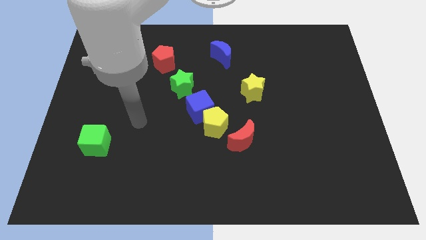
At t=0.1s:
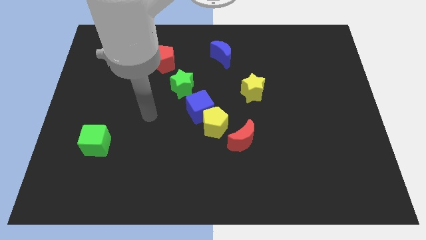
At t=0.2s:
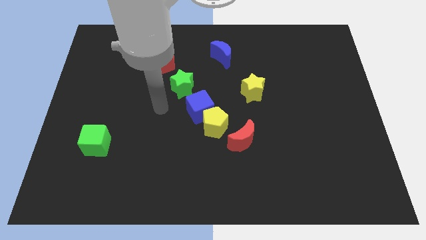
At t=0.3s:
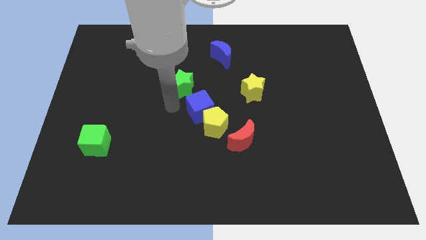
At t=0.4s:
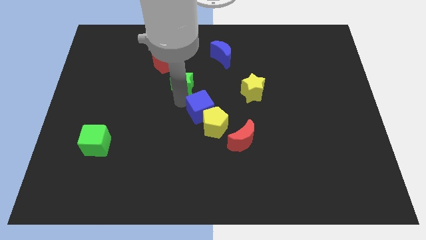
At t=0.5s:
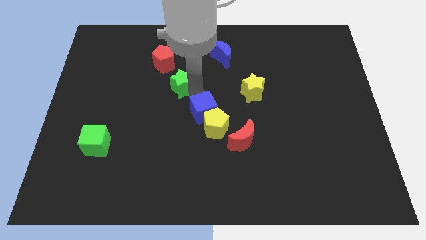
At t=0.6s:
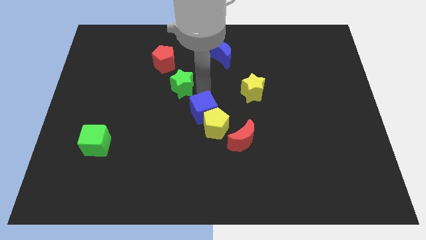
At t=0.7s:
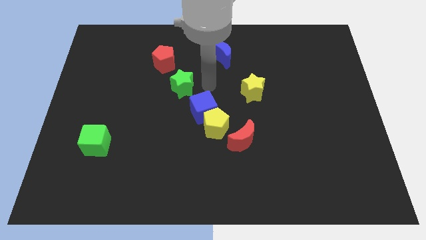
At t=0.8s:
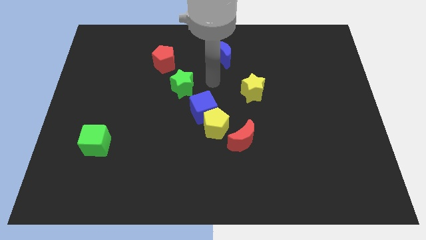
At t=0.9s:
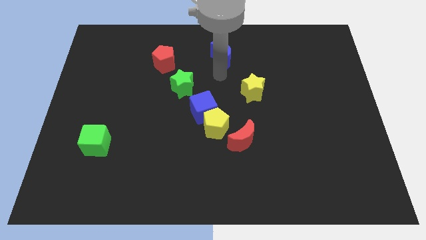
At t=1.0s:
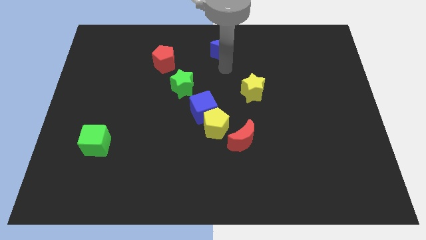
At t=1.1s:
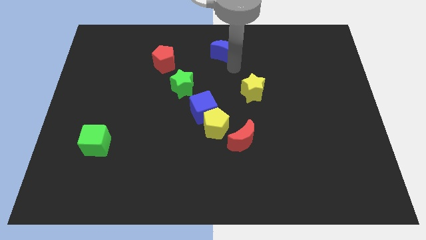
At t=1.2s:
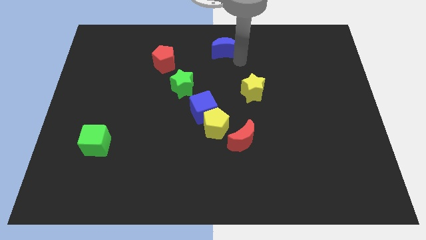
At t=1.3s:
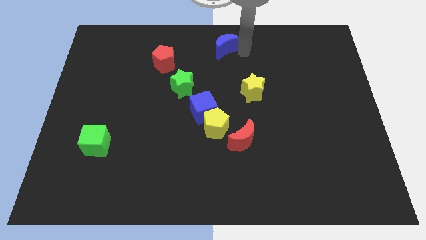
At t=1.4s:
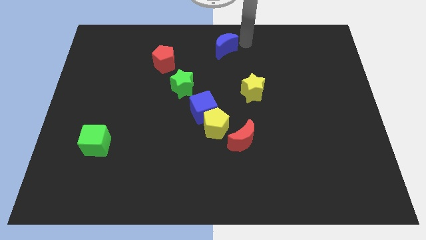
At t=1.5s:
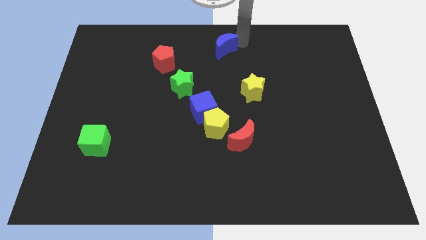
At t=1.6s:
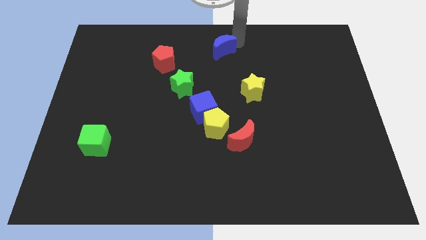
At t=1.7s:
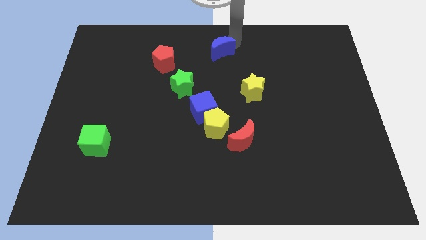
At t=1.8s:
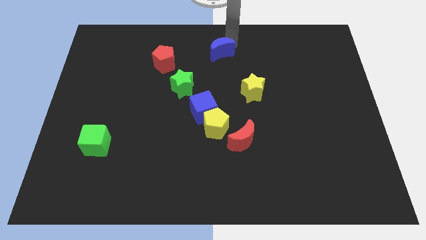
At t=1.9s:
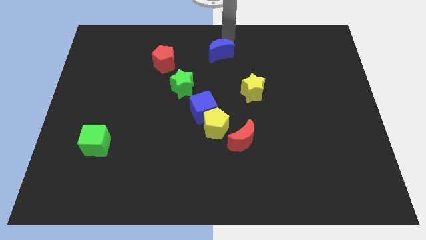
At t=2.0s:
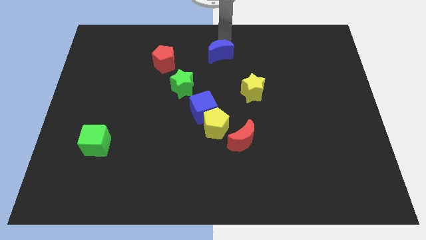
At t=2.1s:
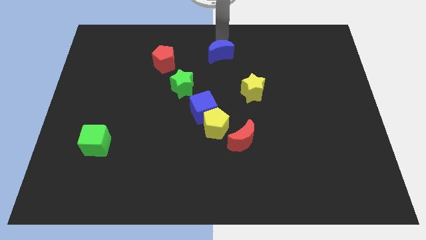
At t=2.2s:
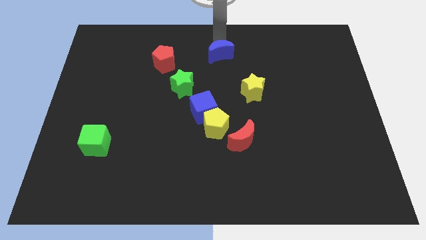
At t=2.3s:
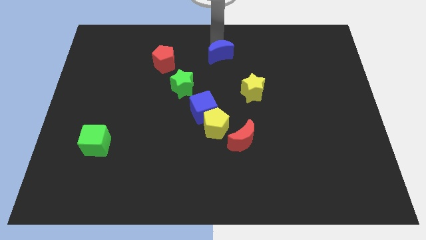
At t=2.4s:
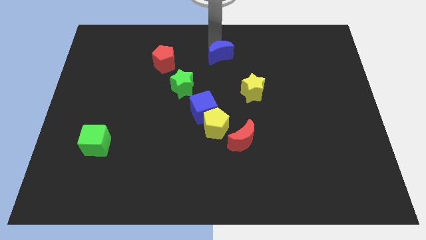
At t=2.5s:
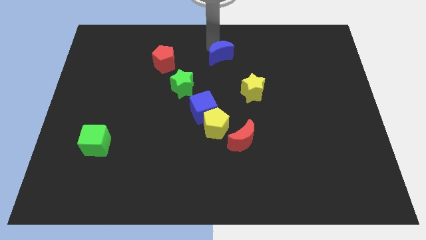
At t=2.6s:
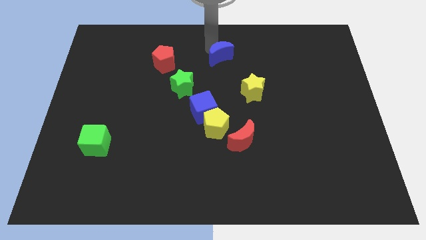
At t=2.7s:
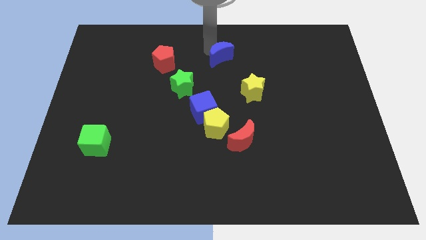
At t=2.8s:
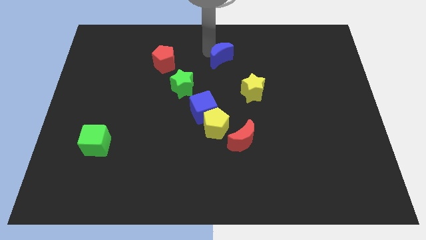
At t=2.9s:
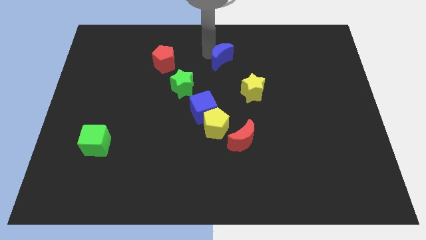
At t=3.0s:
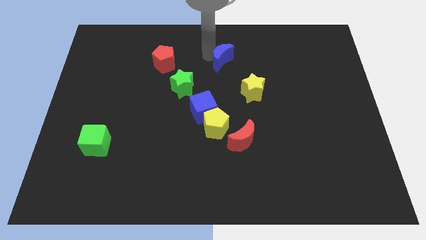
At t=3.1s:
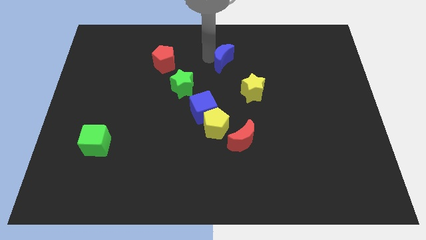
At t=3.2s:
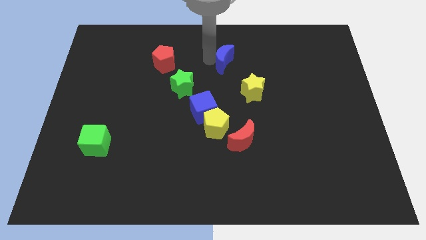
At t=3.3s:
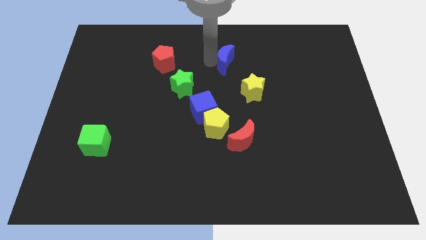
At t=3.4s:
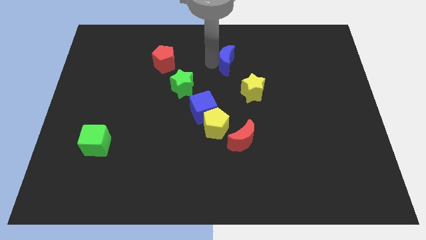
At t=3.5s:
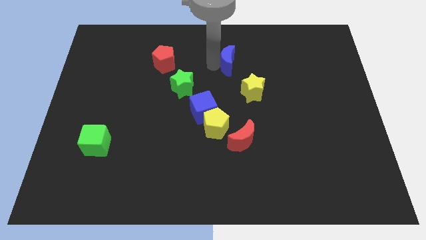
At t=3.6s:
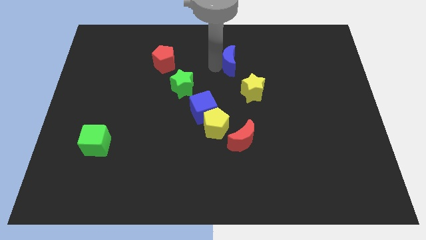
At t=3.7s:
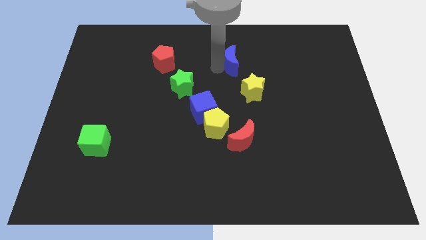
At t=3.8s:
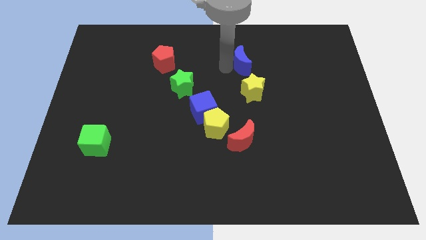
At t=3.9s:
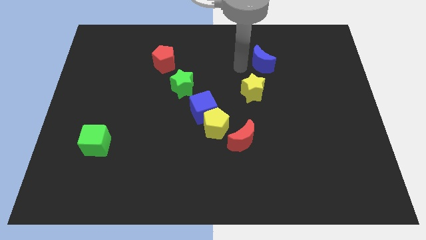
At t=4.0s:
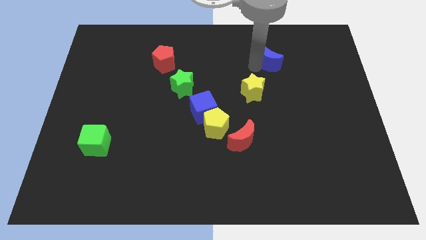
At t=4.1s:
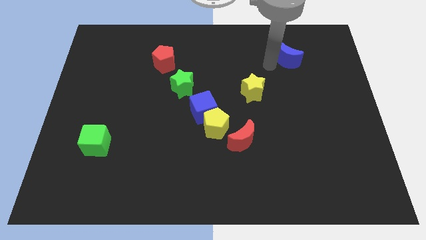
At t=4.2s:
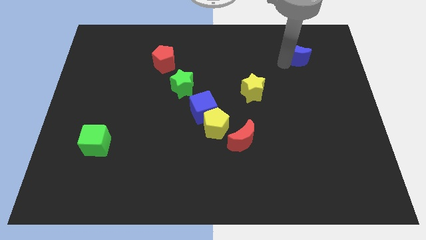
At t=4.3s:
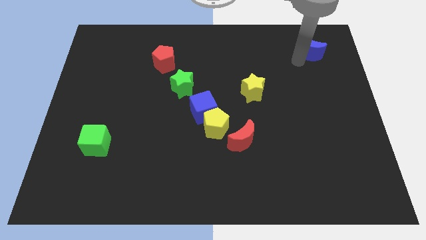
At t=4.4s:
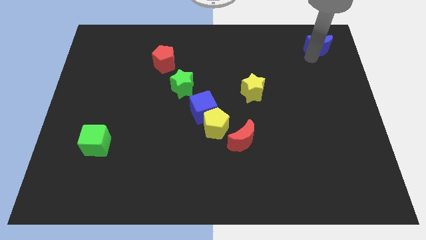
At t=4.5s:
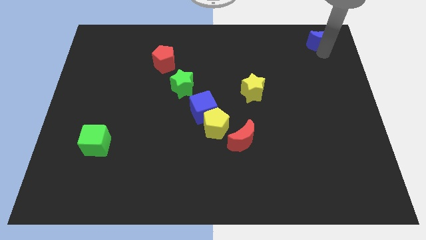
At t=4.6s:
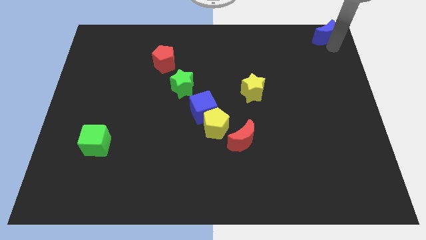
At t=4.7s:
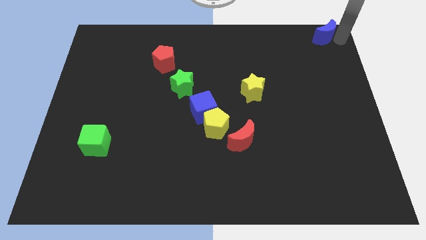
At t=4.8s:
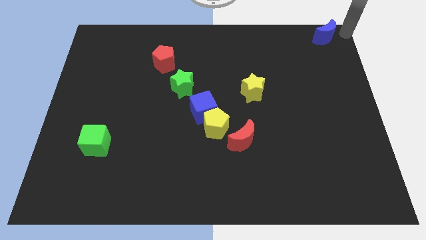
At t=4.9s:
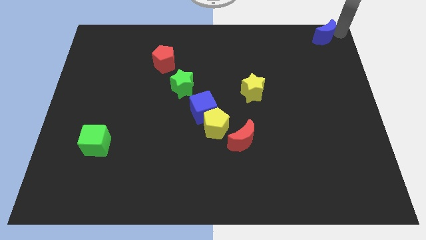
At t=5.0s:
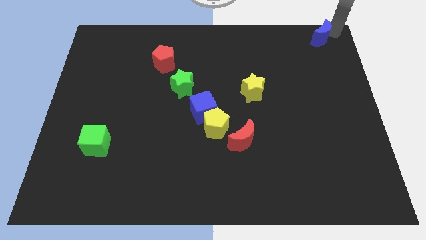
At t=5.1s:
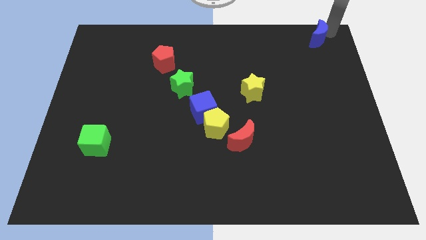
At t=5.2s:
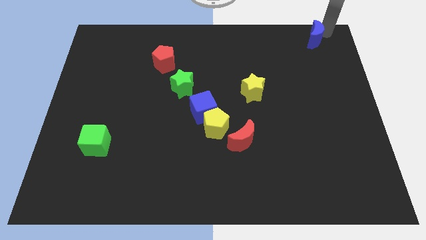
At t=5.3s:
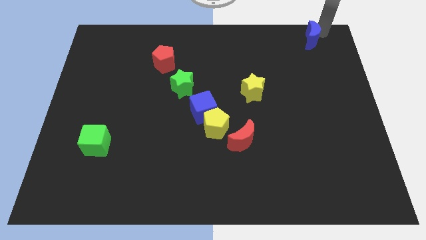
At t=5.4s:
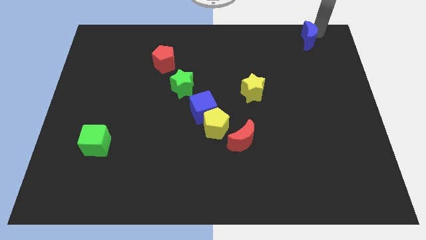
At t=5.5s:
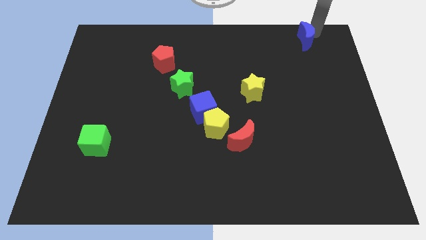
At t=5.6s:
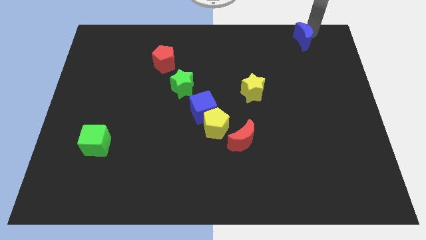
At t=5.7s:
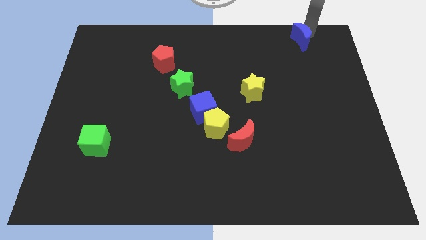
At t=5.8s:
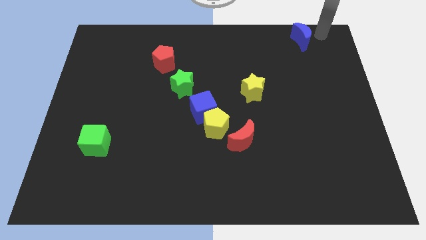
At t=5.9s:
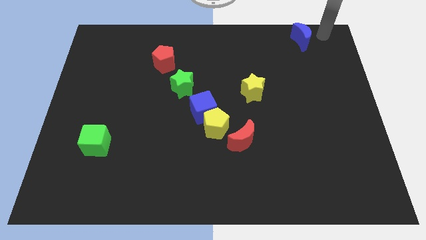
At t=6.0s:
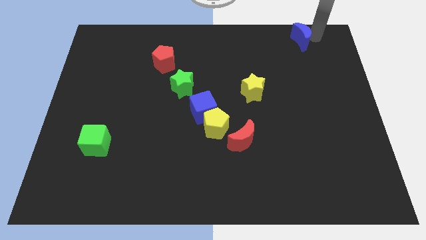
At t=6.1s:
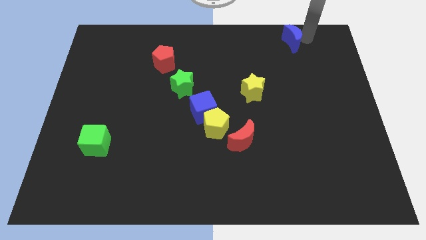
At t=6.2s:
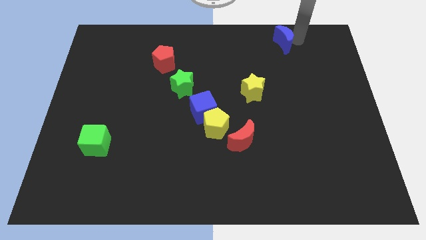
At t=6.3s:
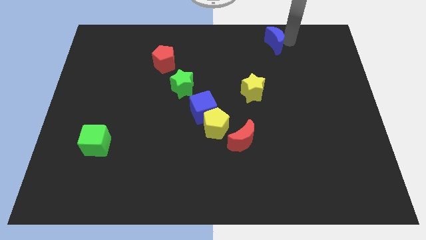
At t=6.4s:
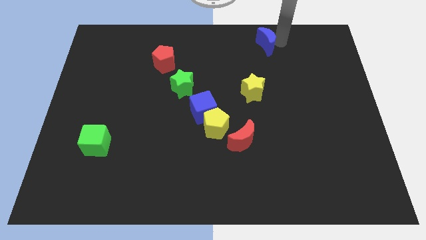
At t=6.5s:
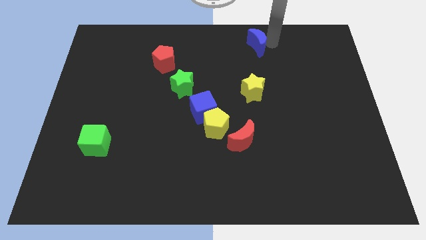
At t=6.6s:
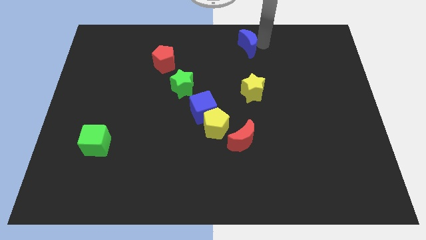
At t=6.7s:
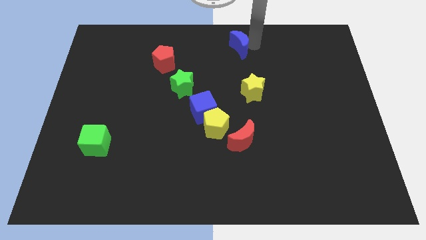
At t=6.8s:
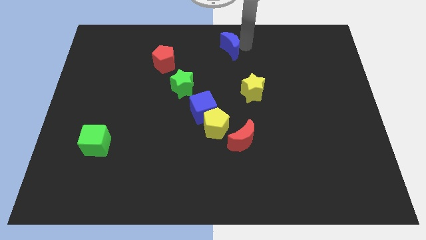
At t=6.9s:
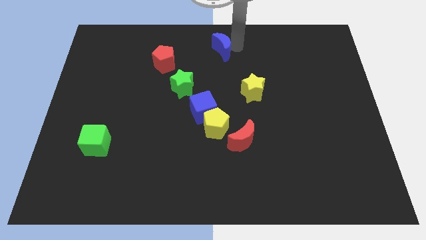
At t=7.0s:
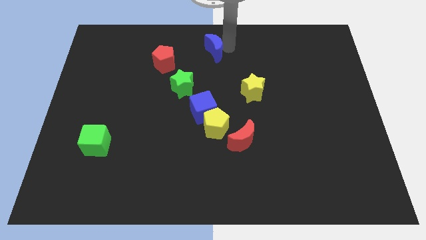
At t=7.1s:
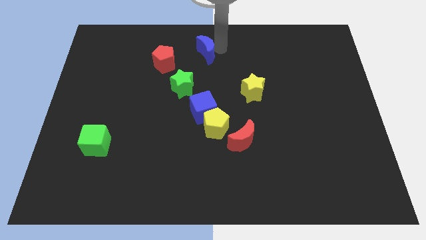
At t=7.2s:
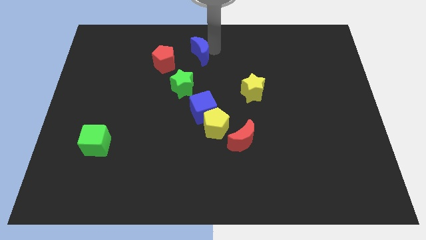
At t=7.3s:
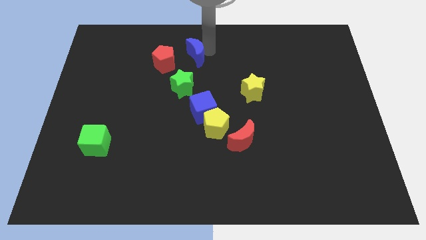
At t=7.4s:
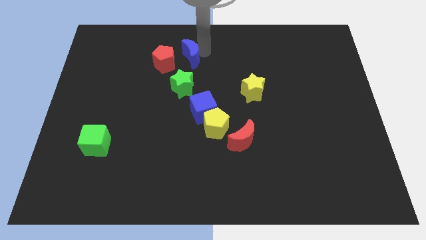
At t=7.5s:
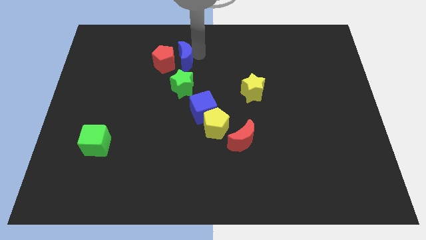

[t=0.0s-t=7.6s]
move the blue moon to the red pentagon
